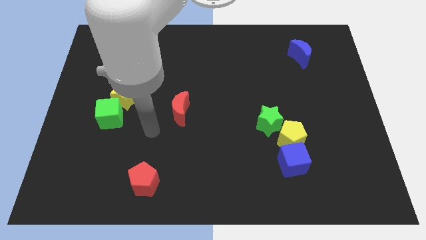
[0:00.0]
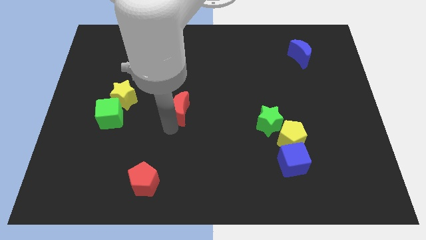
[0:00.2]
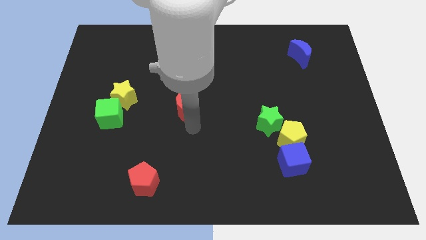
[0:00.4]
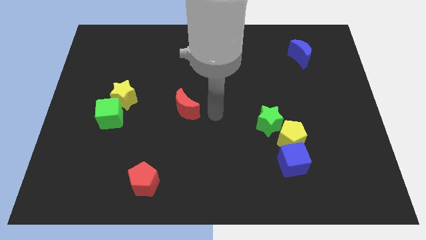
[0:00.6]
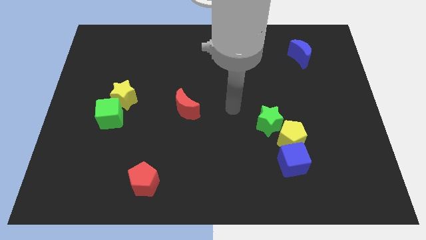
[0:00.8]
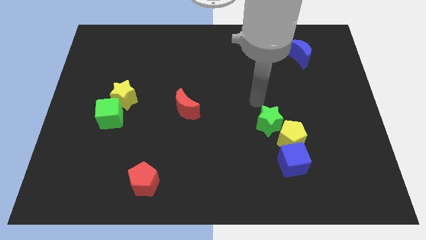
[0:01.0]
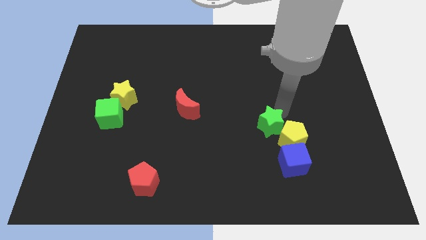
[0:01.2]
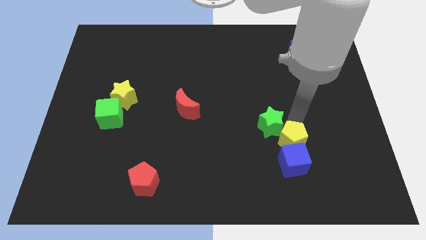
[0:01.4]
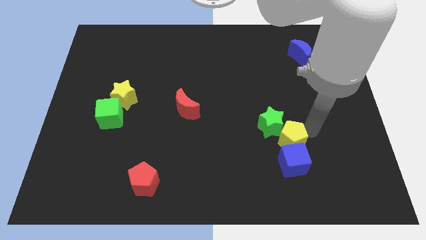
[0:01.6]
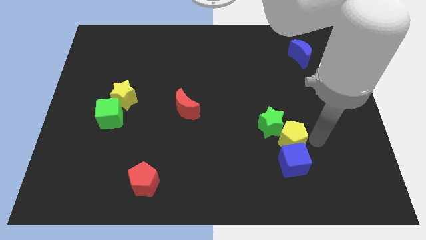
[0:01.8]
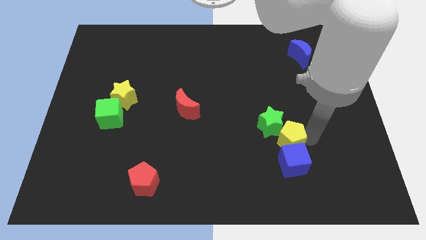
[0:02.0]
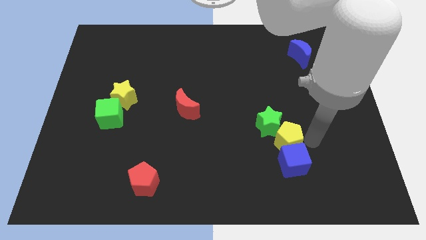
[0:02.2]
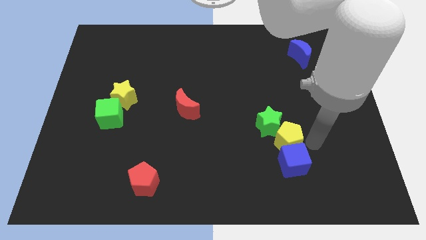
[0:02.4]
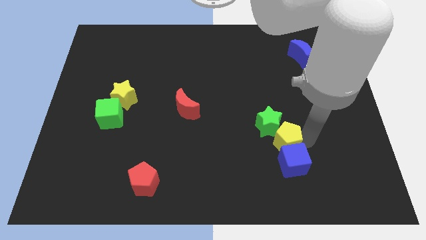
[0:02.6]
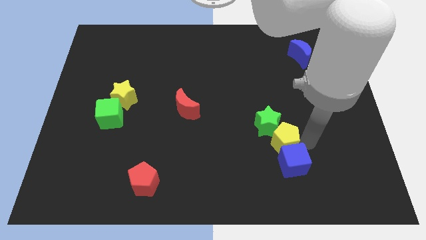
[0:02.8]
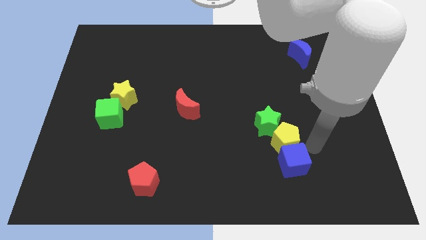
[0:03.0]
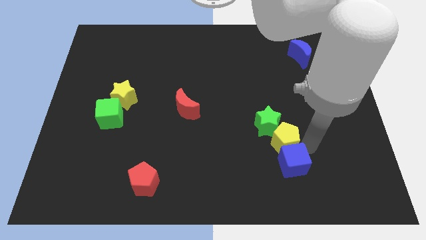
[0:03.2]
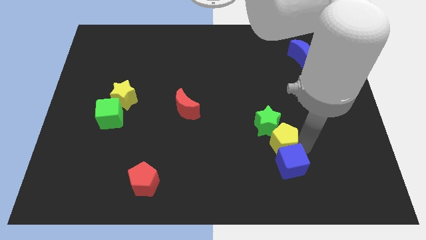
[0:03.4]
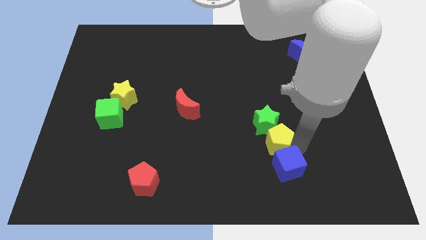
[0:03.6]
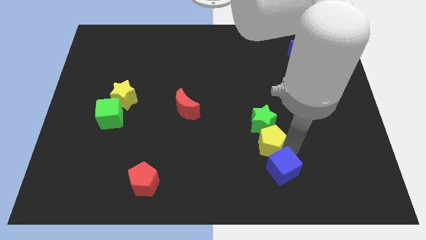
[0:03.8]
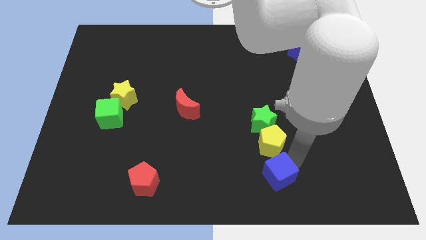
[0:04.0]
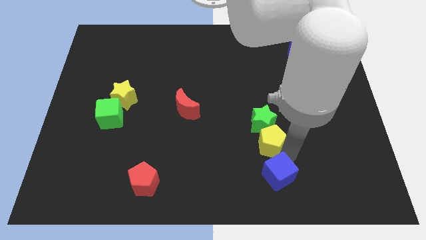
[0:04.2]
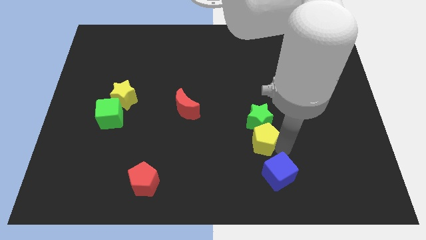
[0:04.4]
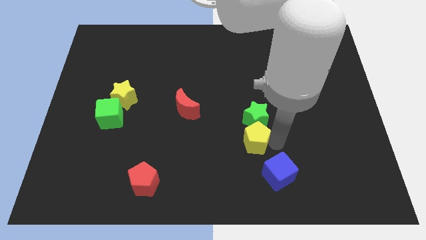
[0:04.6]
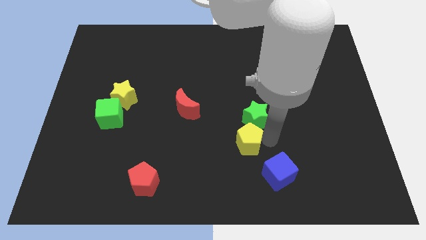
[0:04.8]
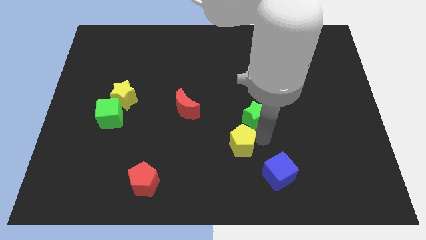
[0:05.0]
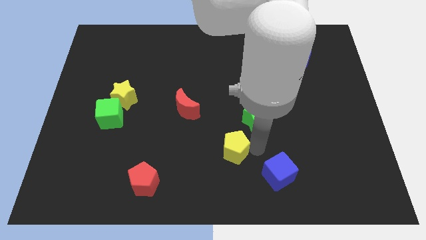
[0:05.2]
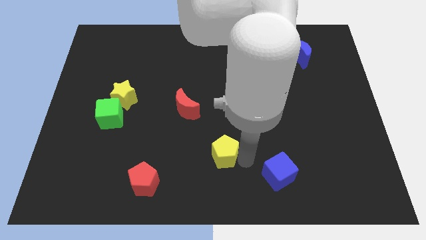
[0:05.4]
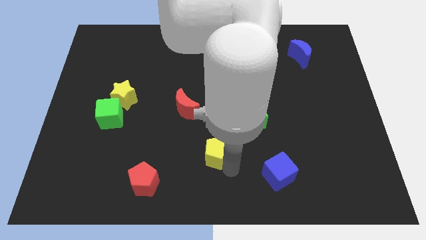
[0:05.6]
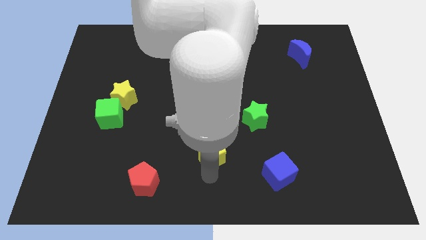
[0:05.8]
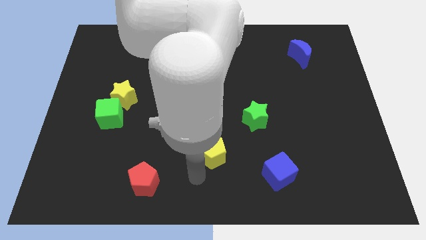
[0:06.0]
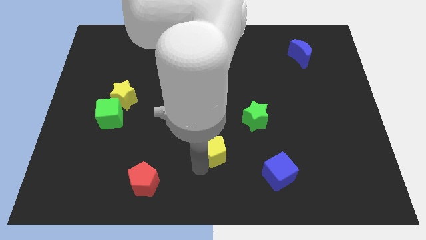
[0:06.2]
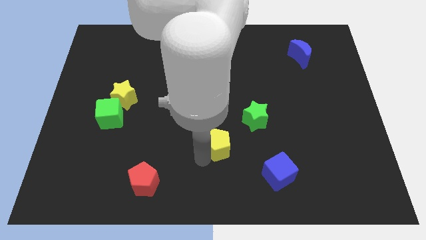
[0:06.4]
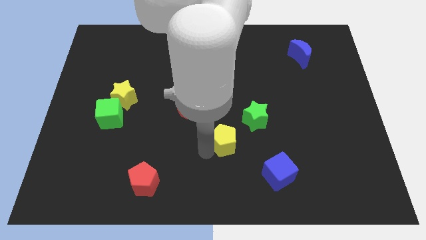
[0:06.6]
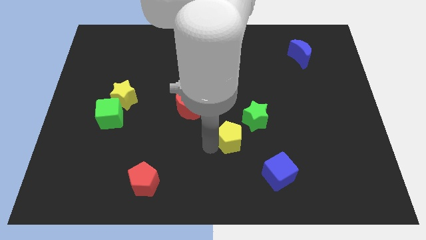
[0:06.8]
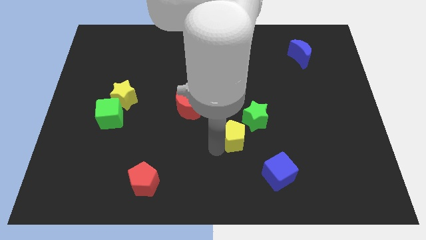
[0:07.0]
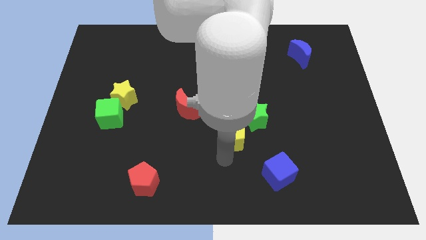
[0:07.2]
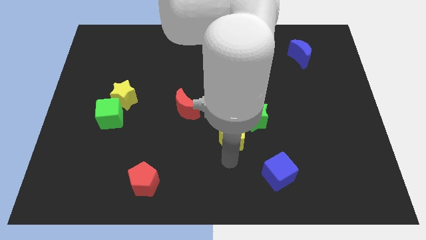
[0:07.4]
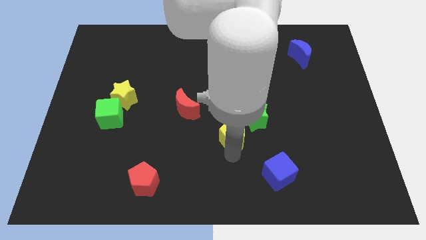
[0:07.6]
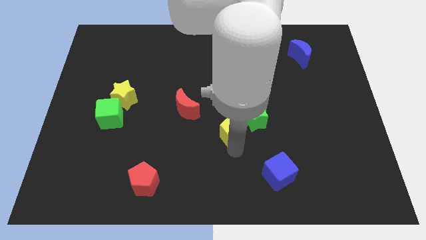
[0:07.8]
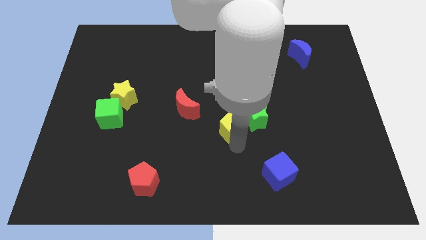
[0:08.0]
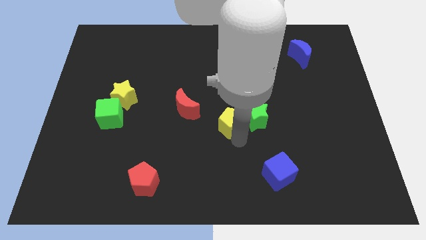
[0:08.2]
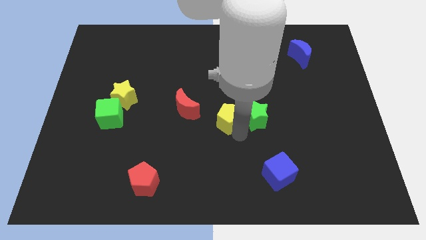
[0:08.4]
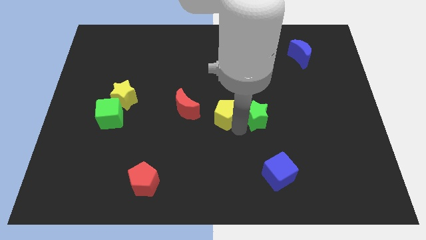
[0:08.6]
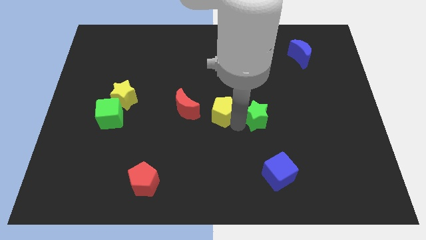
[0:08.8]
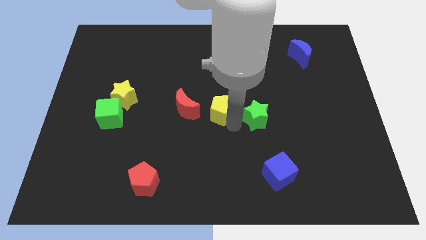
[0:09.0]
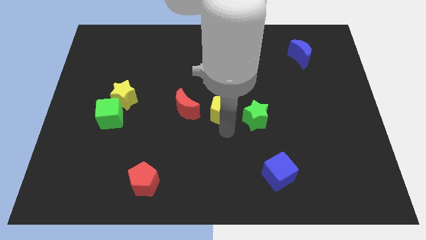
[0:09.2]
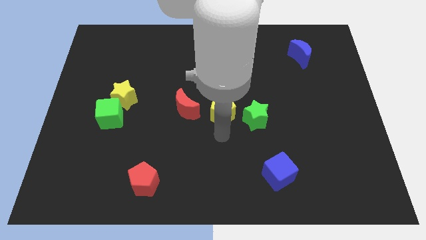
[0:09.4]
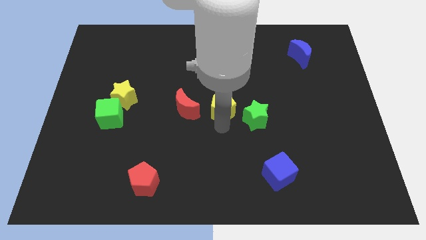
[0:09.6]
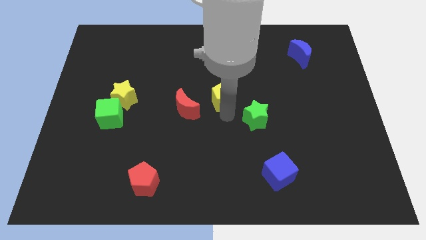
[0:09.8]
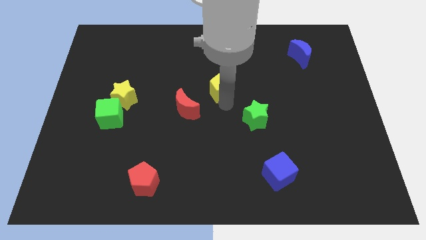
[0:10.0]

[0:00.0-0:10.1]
slide the yellow pentagon diagonally upwards and left

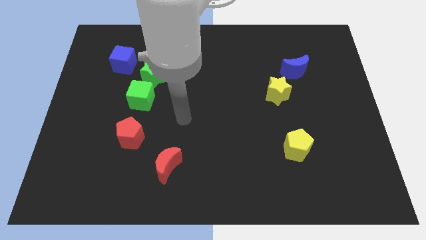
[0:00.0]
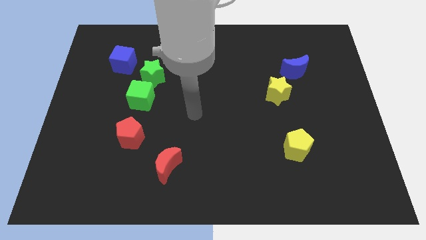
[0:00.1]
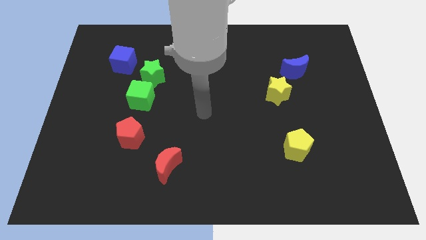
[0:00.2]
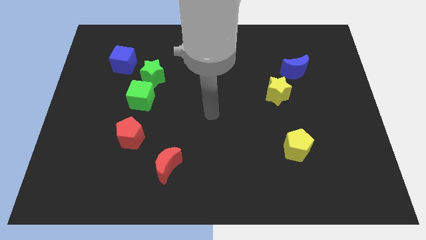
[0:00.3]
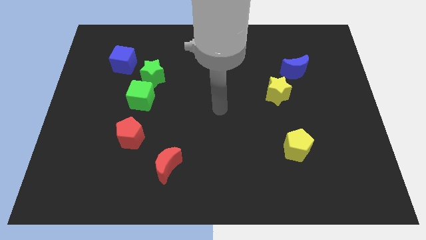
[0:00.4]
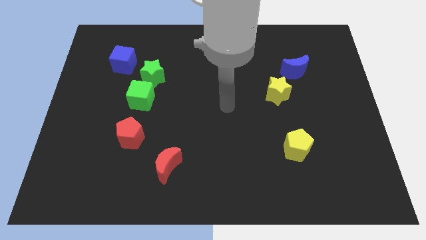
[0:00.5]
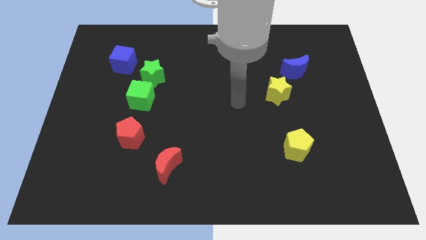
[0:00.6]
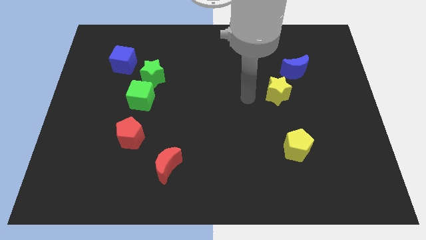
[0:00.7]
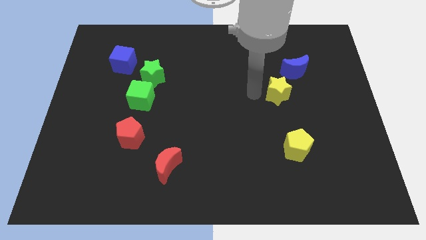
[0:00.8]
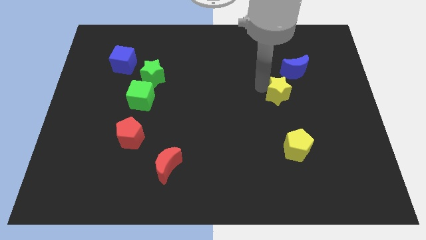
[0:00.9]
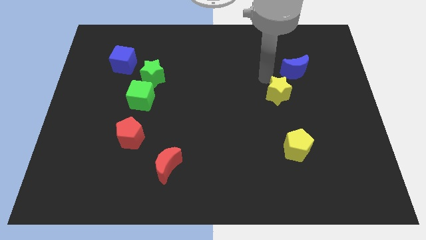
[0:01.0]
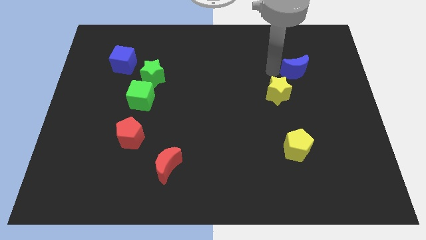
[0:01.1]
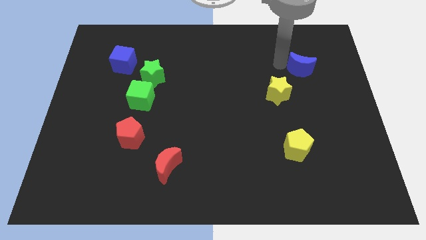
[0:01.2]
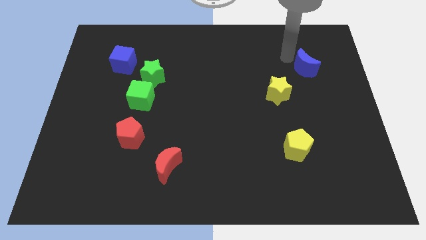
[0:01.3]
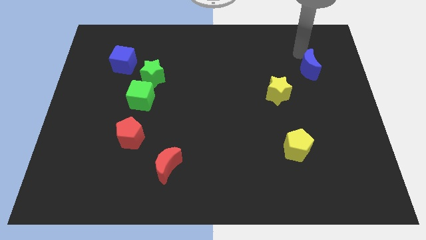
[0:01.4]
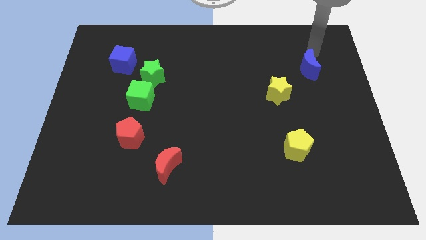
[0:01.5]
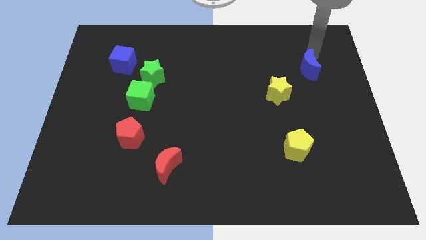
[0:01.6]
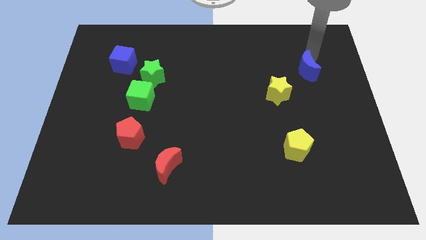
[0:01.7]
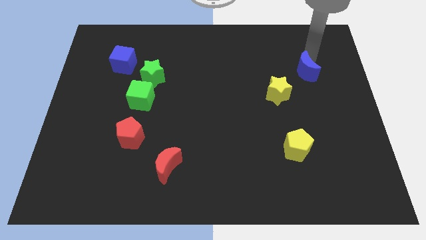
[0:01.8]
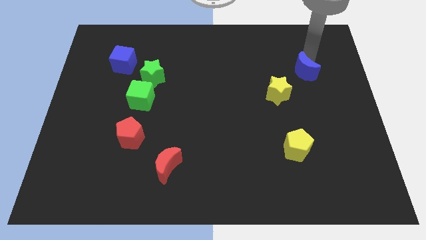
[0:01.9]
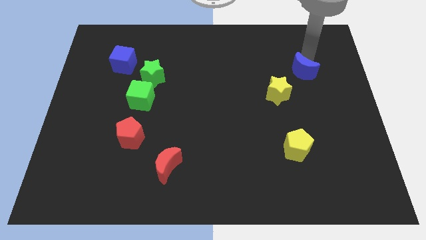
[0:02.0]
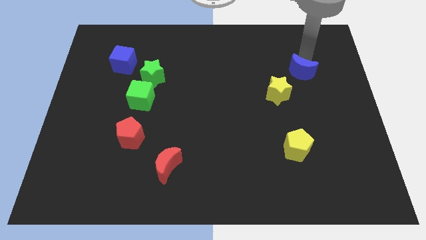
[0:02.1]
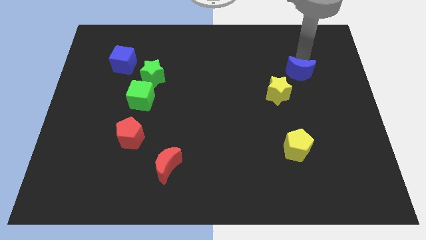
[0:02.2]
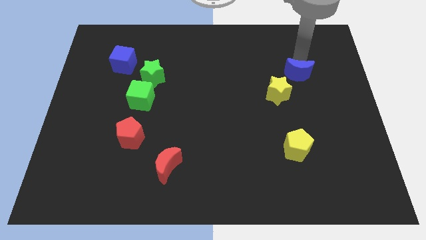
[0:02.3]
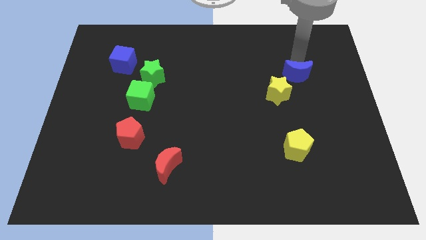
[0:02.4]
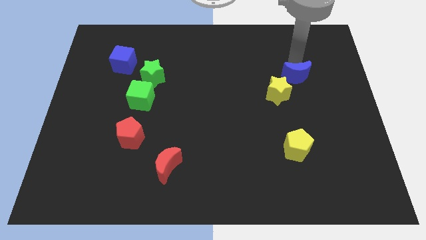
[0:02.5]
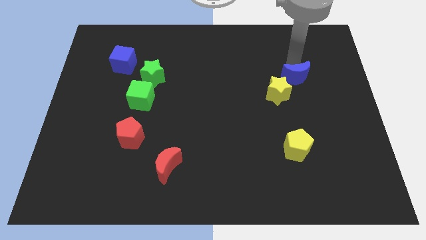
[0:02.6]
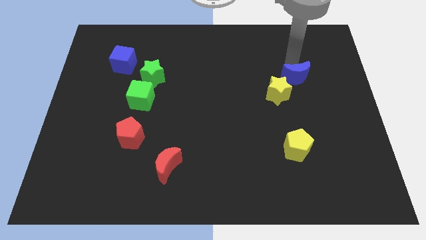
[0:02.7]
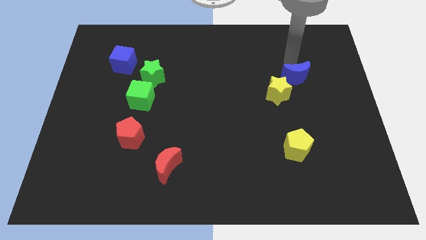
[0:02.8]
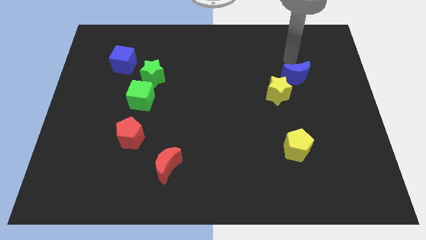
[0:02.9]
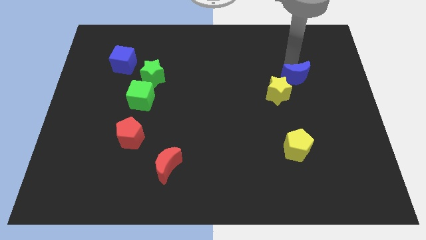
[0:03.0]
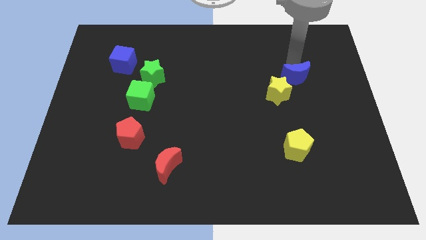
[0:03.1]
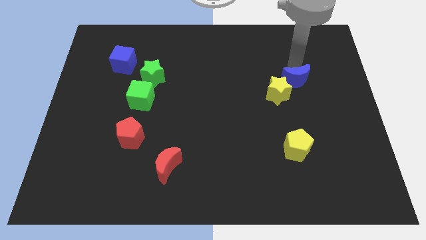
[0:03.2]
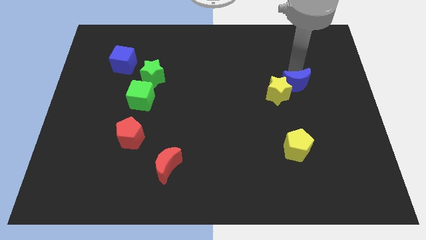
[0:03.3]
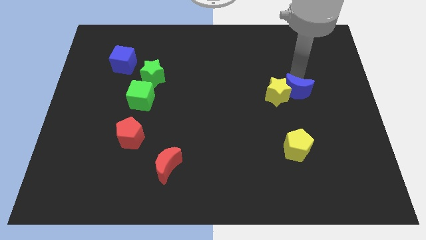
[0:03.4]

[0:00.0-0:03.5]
push the blue moon down somewhat
